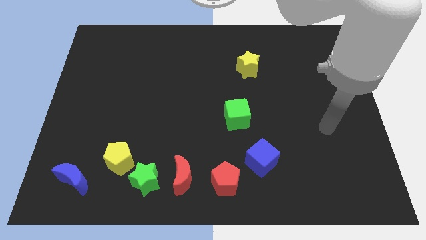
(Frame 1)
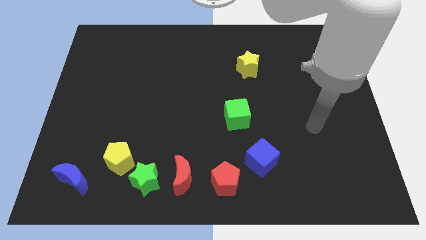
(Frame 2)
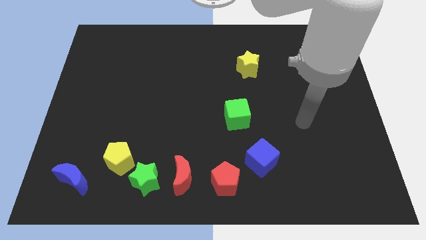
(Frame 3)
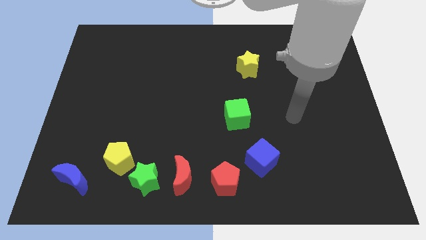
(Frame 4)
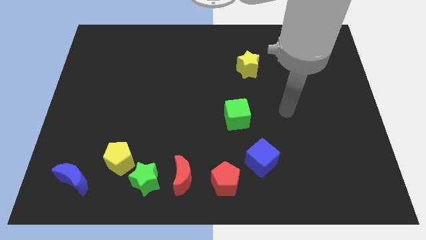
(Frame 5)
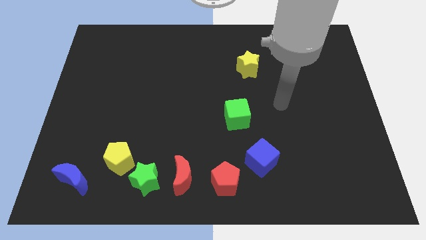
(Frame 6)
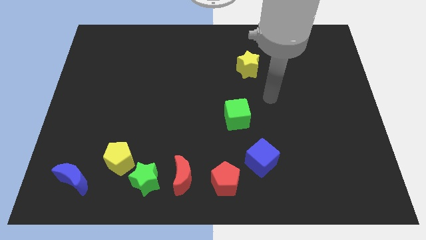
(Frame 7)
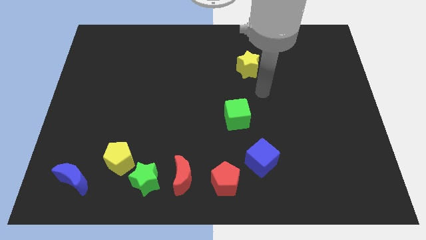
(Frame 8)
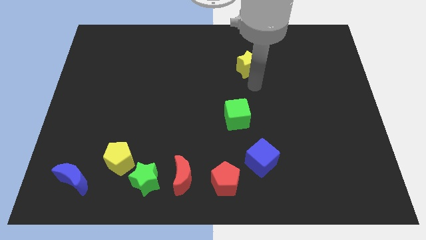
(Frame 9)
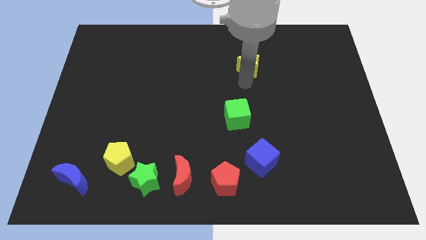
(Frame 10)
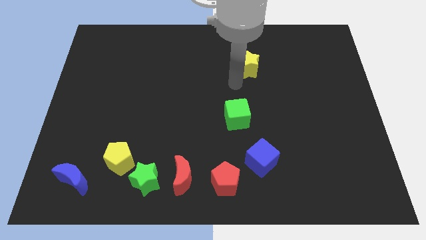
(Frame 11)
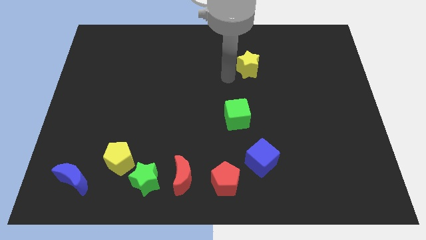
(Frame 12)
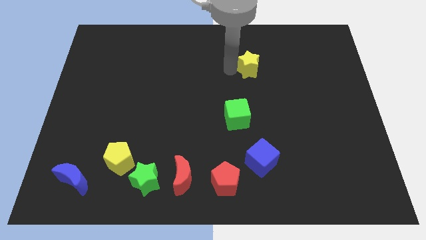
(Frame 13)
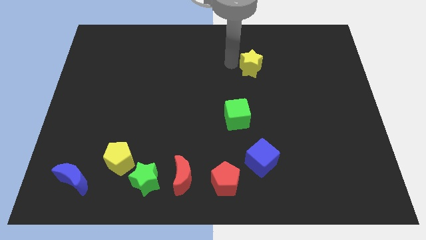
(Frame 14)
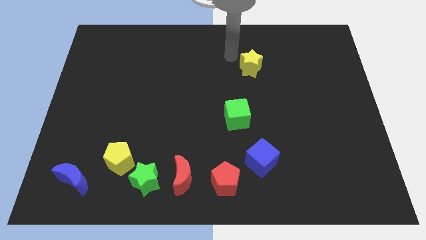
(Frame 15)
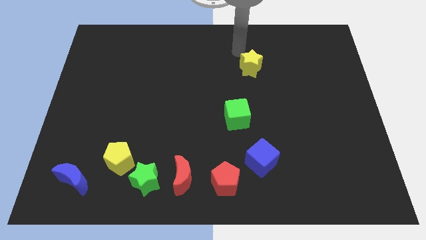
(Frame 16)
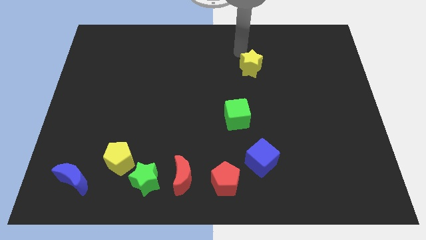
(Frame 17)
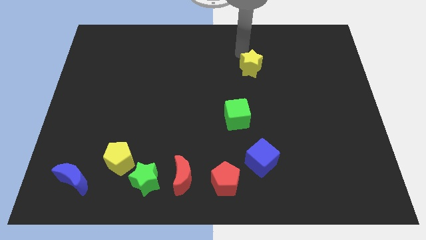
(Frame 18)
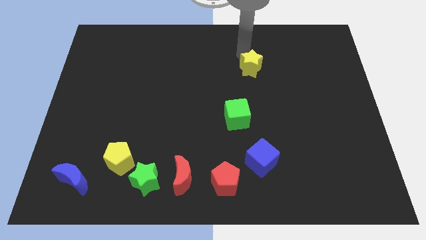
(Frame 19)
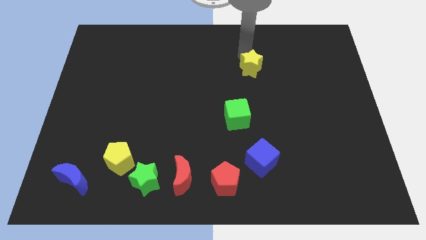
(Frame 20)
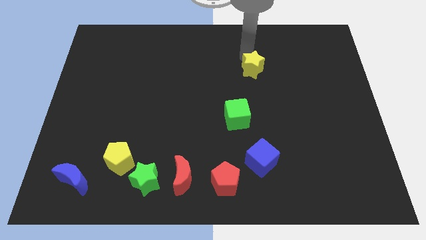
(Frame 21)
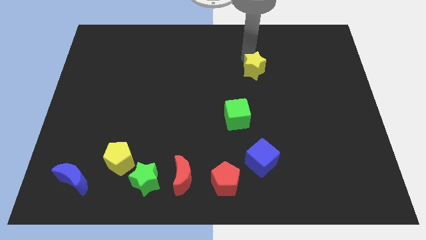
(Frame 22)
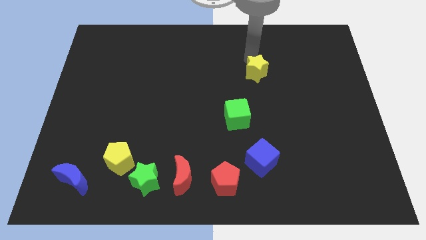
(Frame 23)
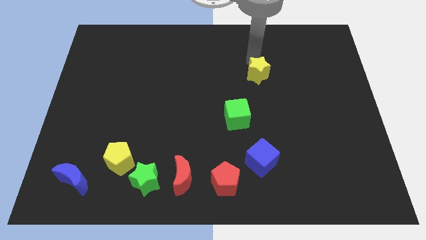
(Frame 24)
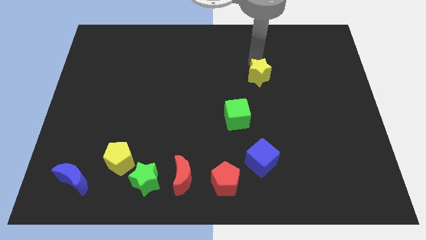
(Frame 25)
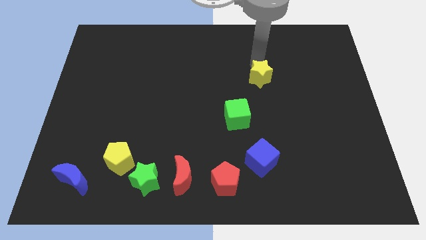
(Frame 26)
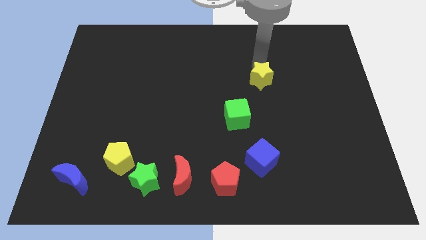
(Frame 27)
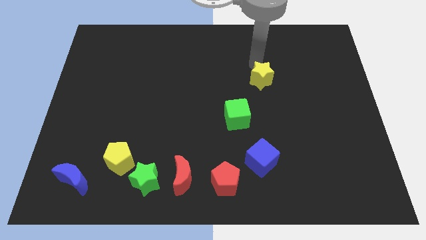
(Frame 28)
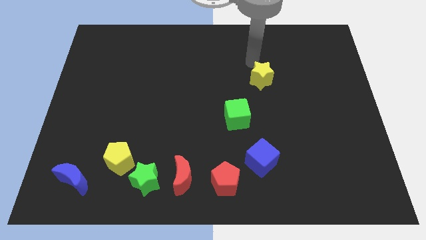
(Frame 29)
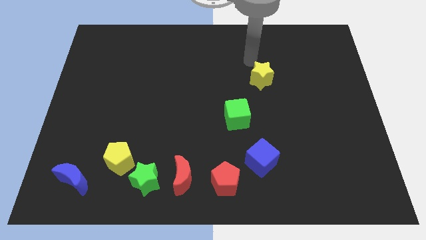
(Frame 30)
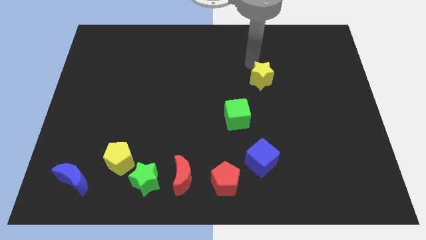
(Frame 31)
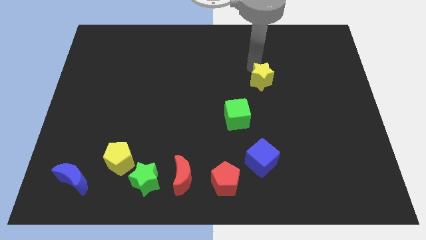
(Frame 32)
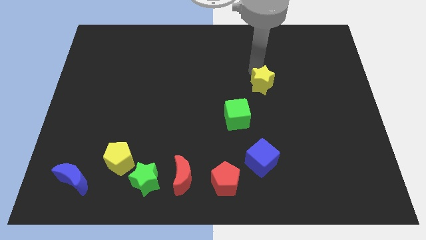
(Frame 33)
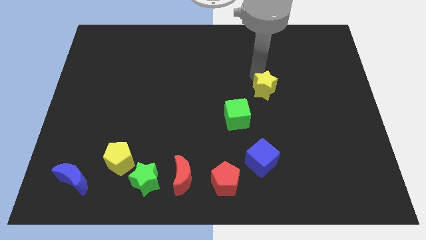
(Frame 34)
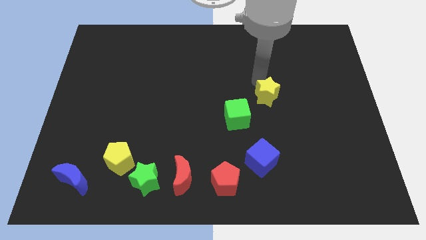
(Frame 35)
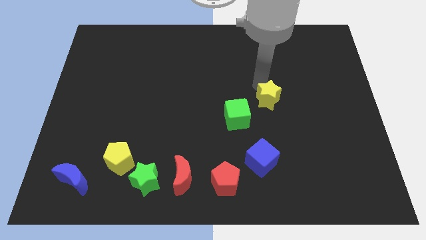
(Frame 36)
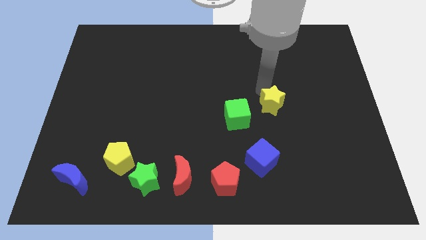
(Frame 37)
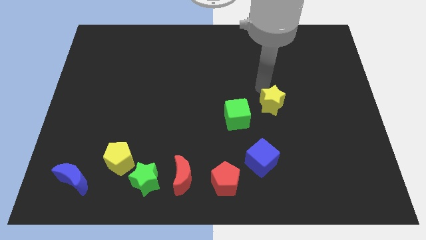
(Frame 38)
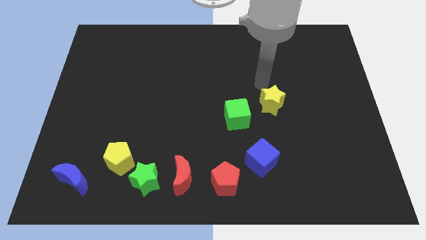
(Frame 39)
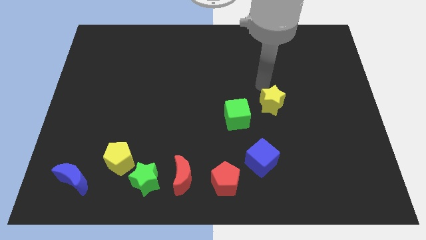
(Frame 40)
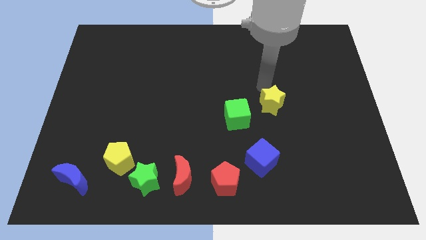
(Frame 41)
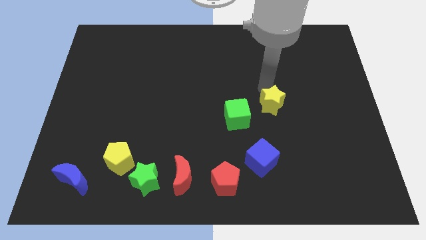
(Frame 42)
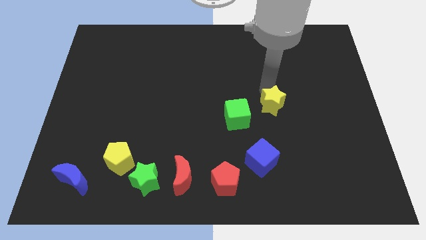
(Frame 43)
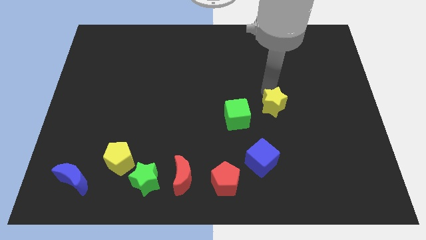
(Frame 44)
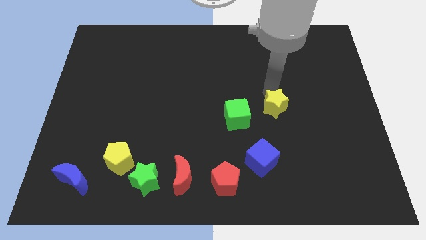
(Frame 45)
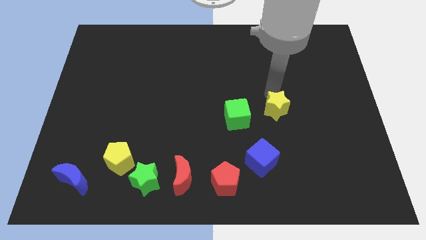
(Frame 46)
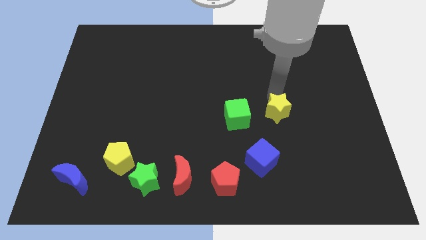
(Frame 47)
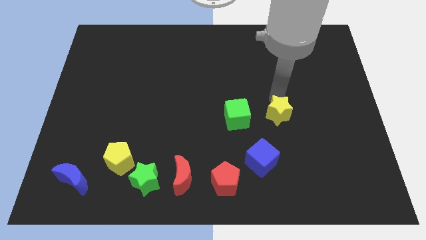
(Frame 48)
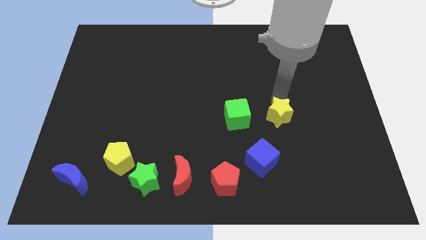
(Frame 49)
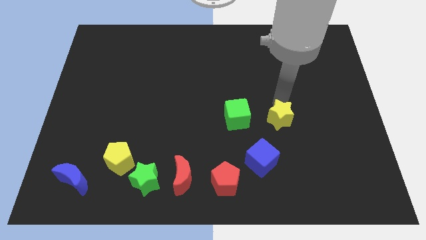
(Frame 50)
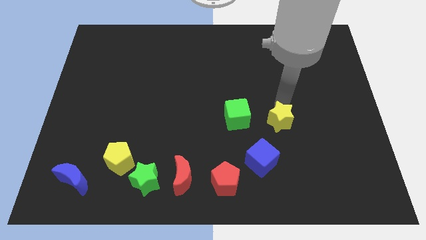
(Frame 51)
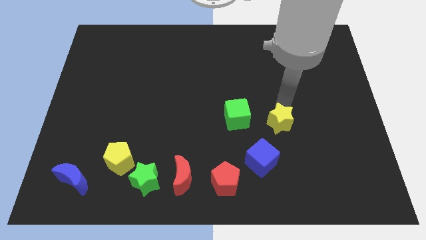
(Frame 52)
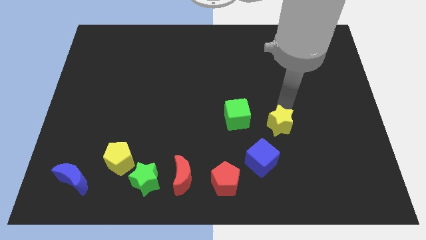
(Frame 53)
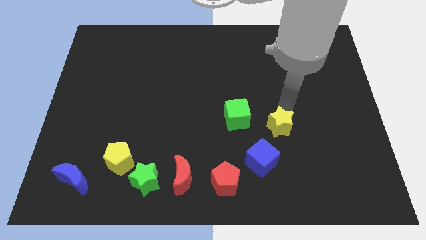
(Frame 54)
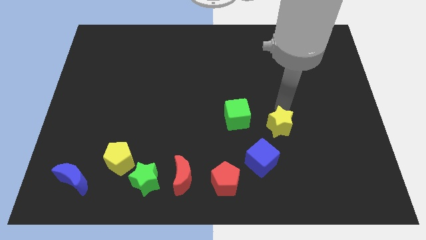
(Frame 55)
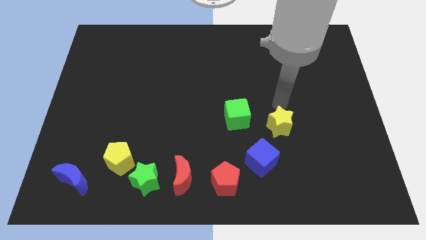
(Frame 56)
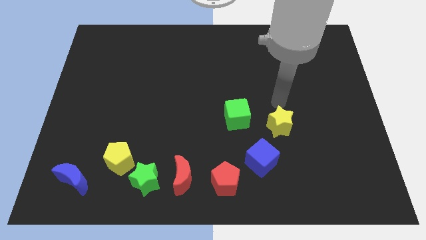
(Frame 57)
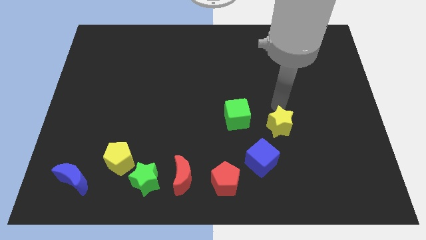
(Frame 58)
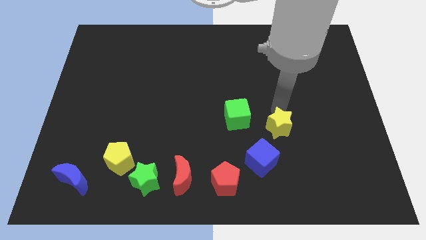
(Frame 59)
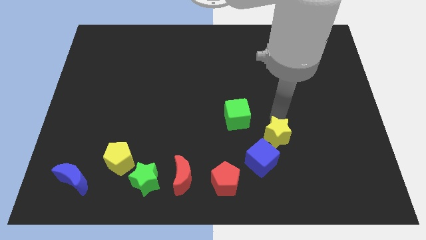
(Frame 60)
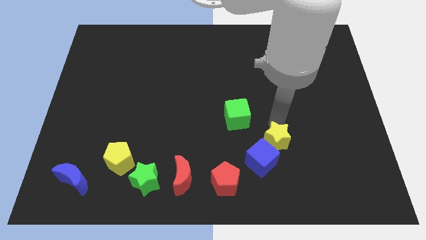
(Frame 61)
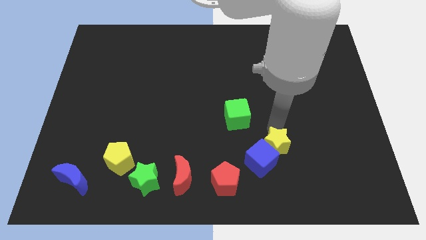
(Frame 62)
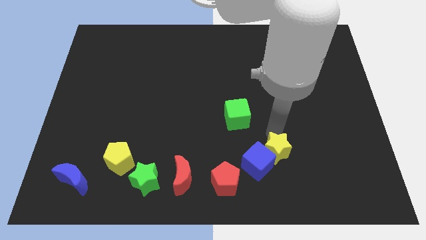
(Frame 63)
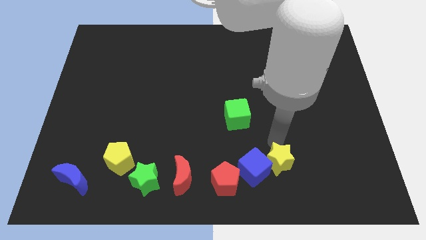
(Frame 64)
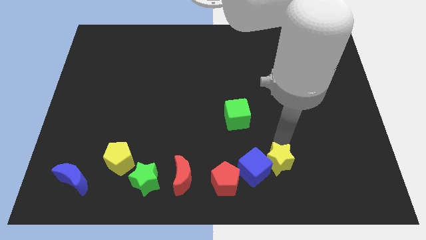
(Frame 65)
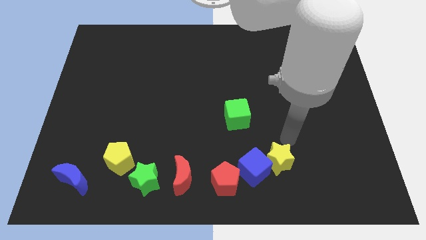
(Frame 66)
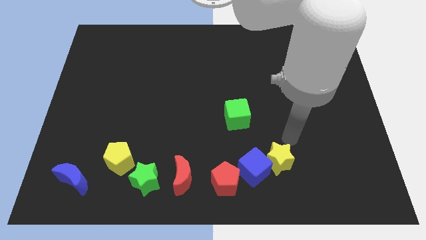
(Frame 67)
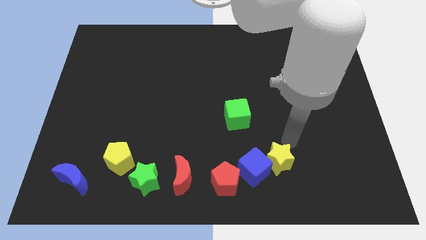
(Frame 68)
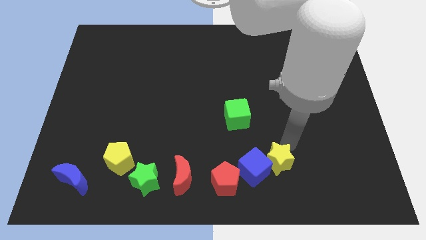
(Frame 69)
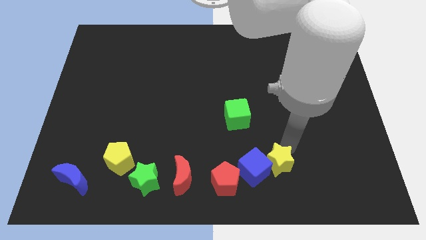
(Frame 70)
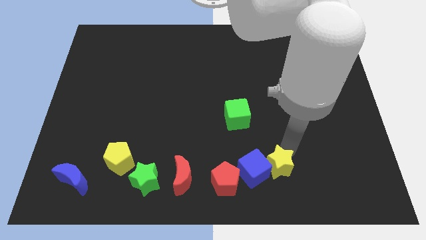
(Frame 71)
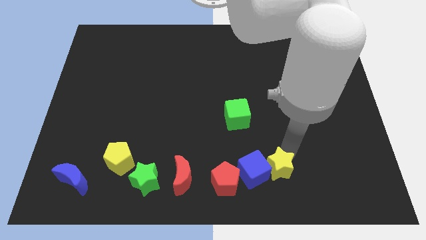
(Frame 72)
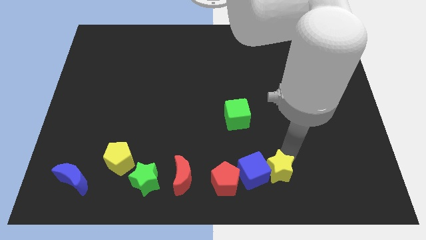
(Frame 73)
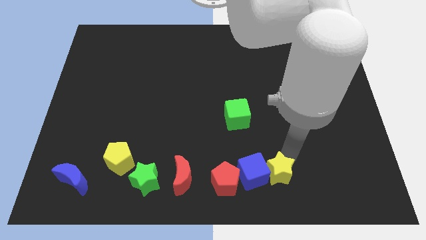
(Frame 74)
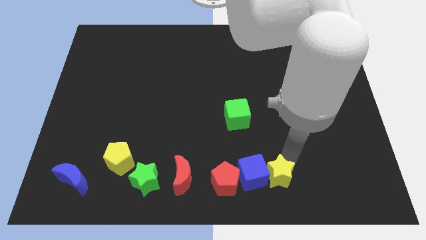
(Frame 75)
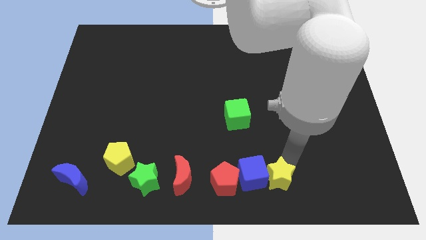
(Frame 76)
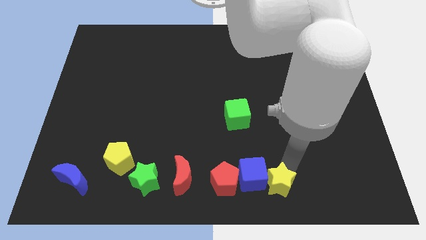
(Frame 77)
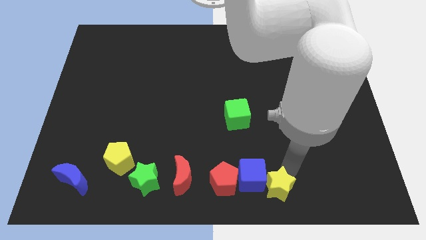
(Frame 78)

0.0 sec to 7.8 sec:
slide the yellow star to the bottom side
